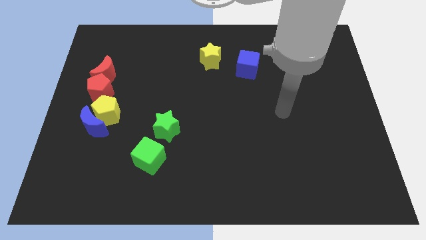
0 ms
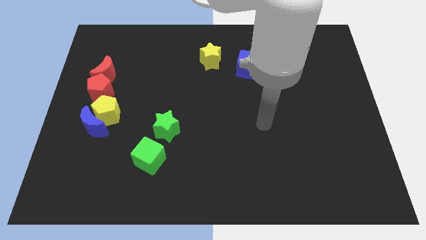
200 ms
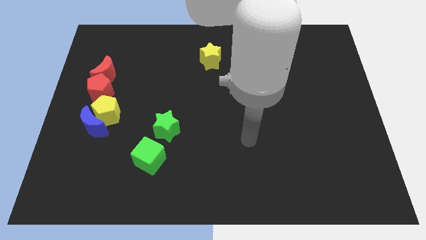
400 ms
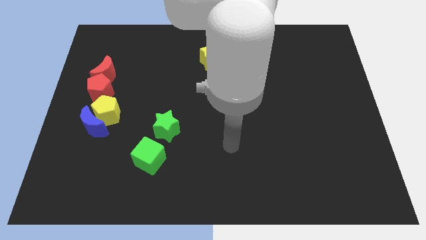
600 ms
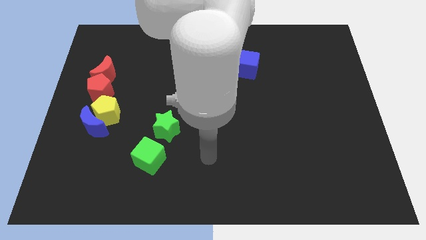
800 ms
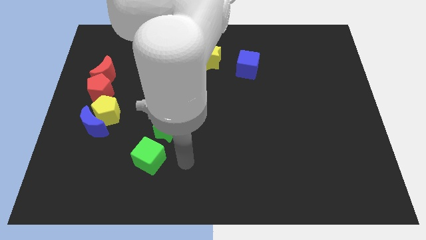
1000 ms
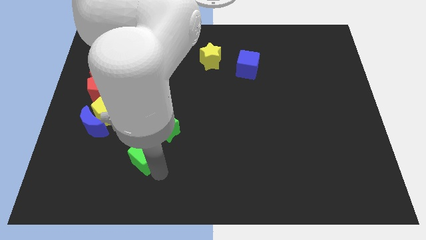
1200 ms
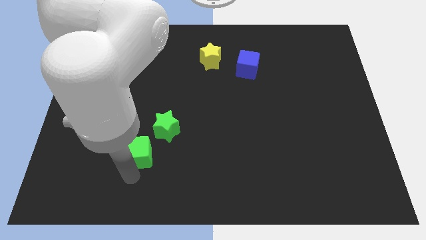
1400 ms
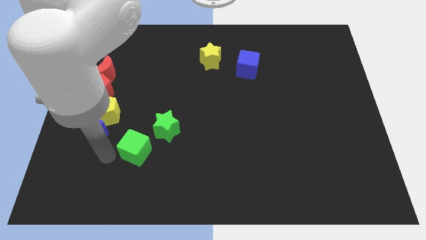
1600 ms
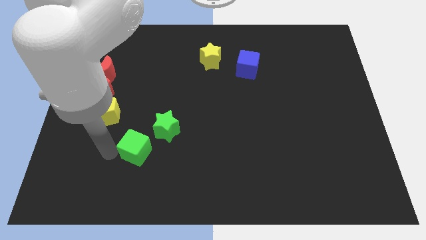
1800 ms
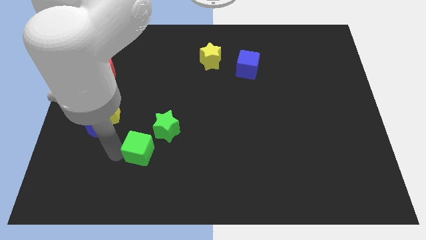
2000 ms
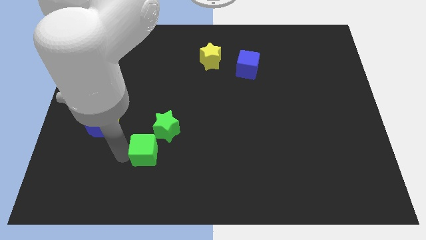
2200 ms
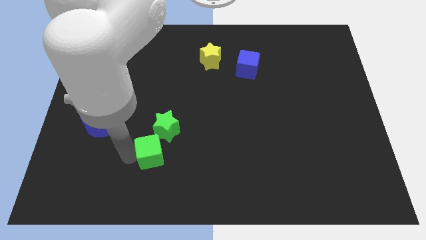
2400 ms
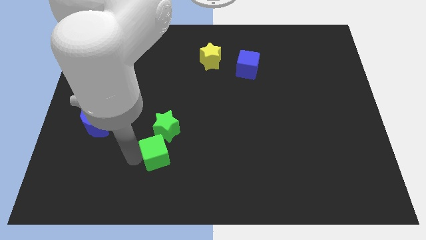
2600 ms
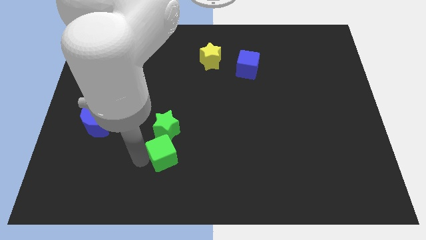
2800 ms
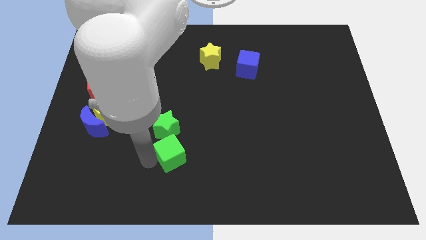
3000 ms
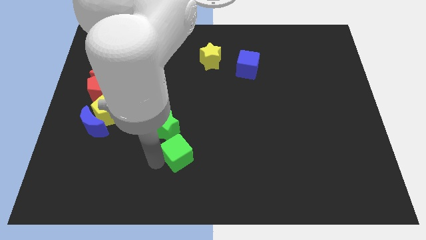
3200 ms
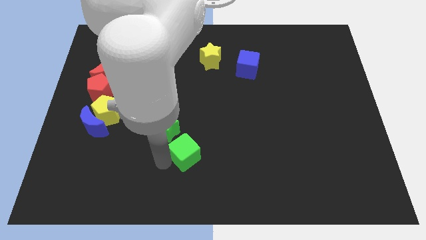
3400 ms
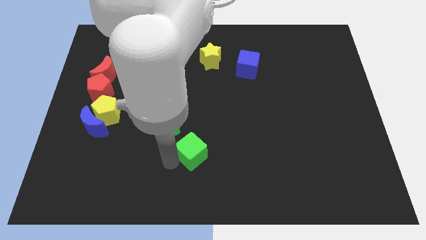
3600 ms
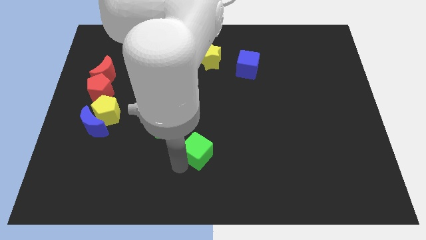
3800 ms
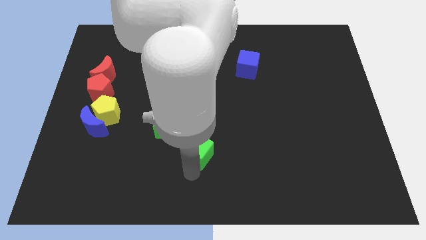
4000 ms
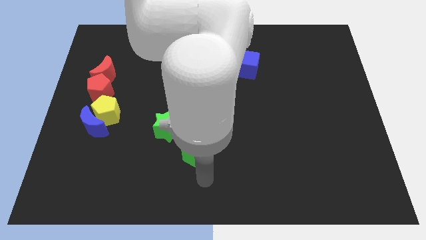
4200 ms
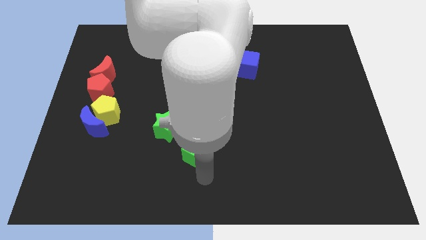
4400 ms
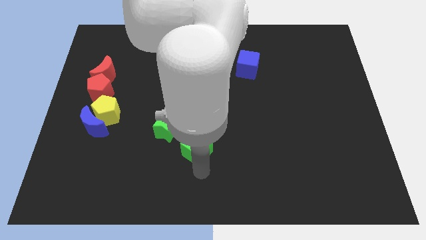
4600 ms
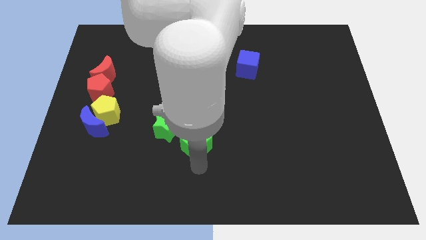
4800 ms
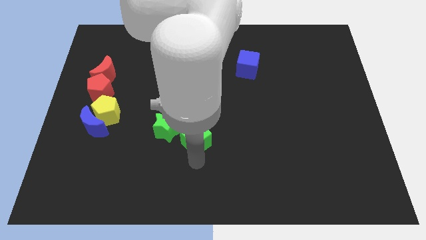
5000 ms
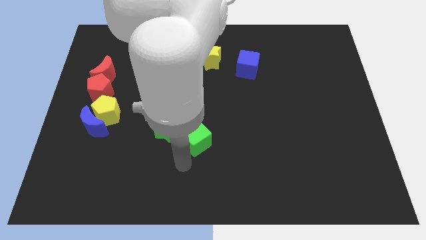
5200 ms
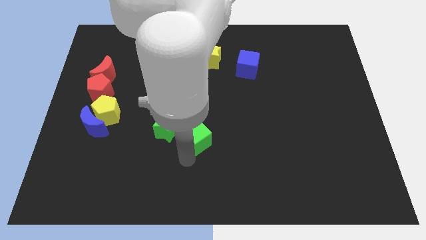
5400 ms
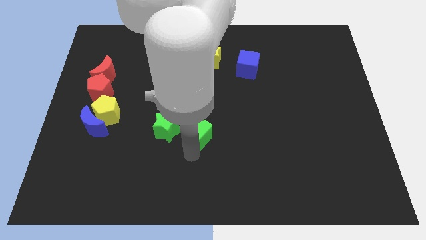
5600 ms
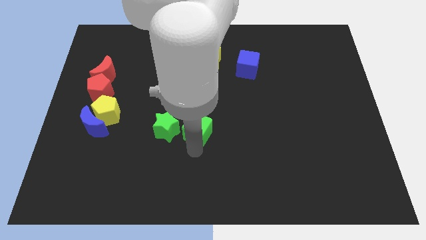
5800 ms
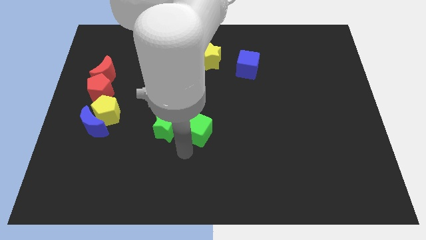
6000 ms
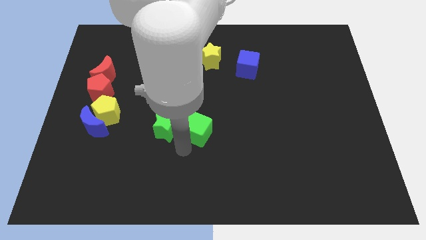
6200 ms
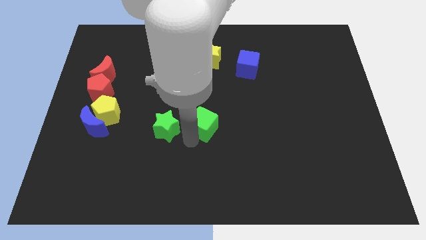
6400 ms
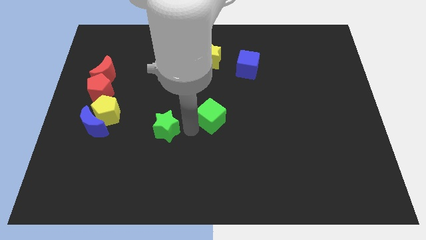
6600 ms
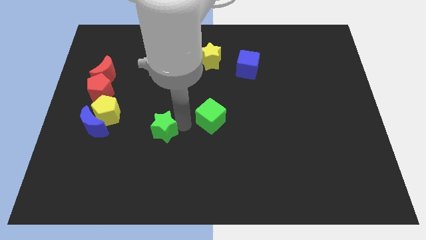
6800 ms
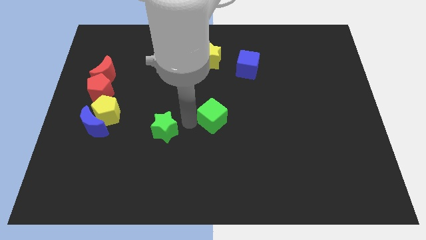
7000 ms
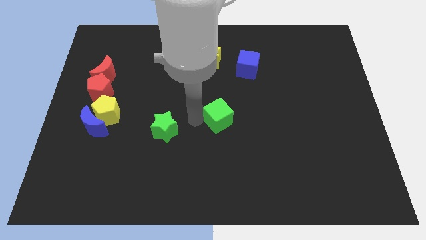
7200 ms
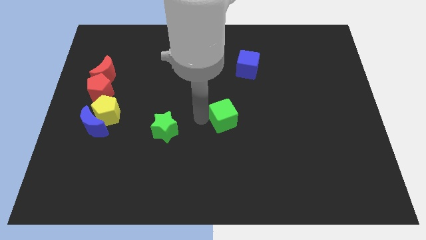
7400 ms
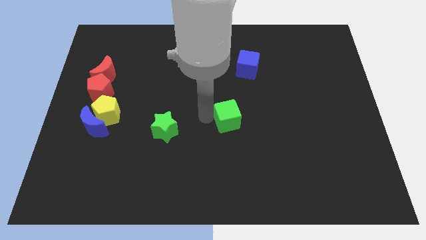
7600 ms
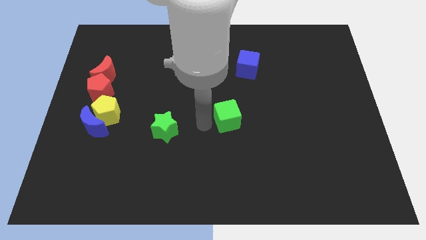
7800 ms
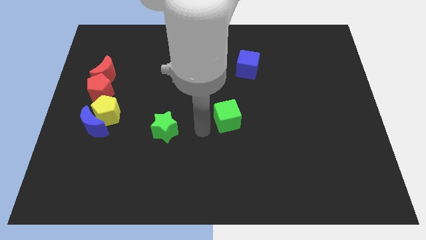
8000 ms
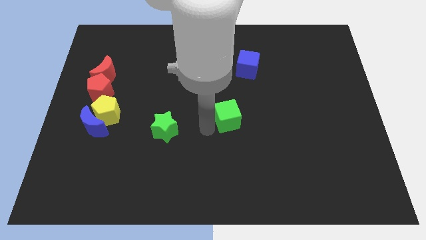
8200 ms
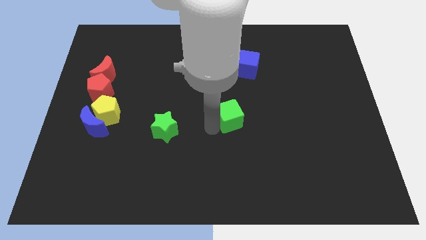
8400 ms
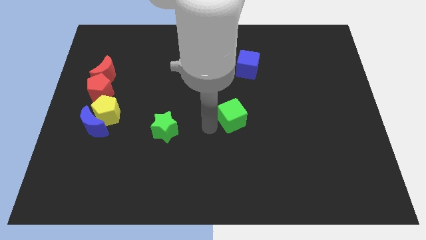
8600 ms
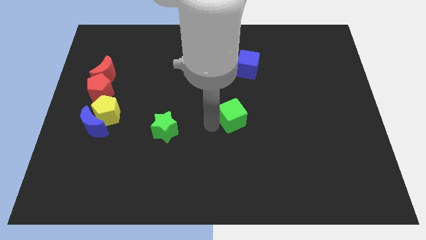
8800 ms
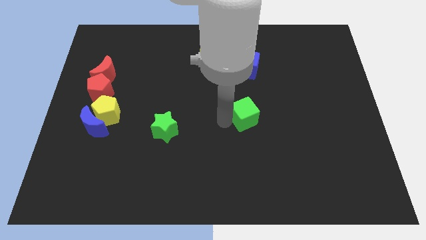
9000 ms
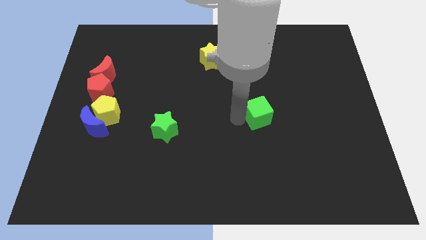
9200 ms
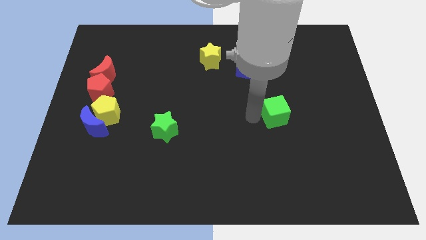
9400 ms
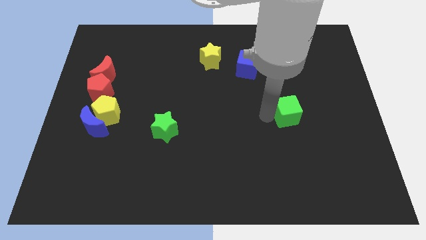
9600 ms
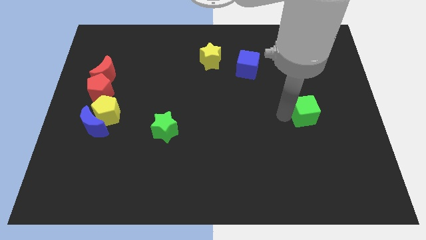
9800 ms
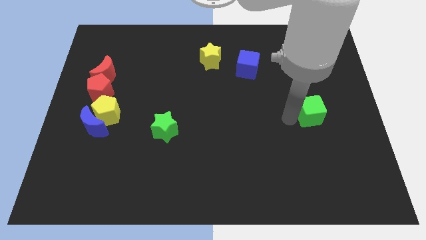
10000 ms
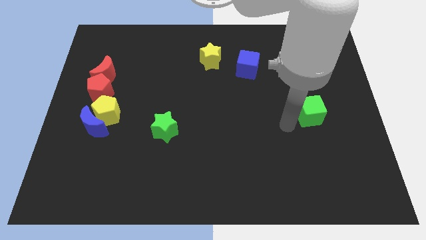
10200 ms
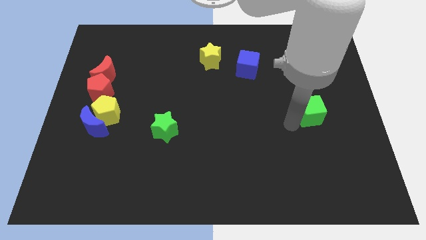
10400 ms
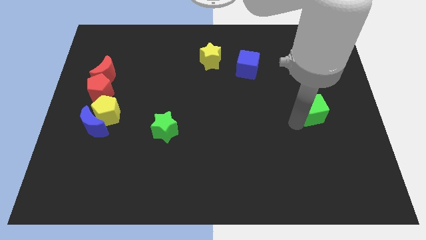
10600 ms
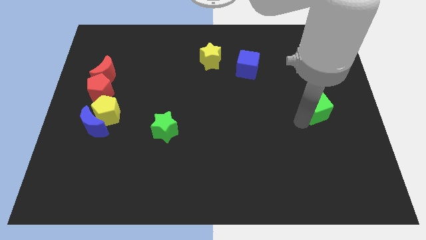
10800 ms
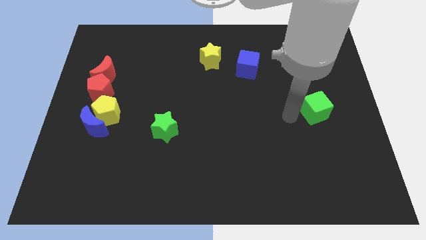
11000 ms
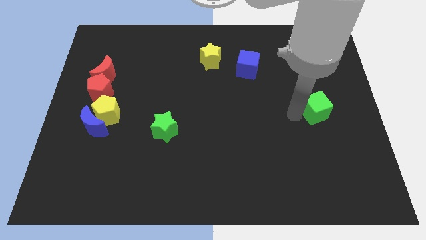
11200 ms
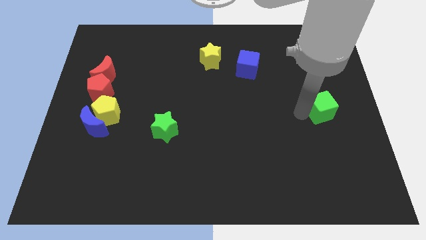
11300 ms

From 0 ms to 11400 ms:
put the green cube to the right side
